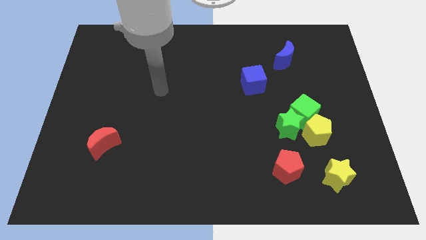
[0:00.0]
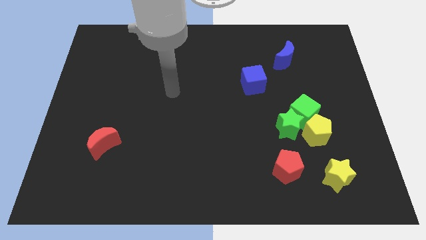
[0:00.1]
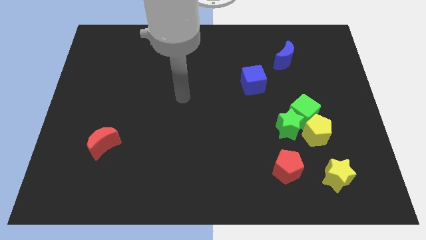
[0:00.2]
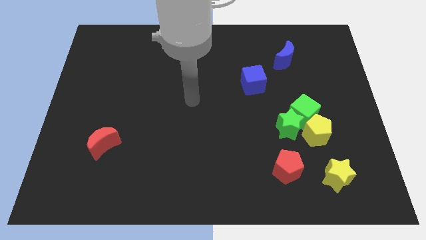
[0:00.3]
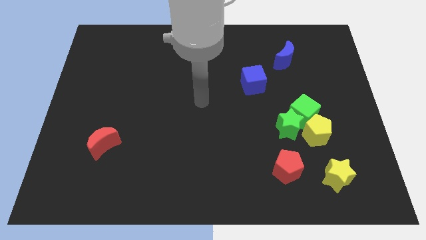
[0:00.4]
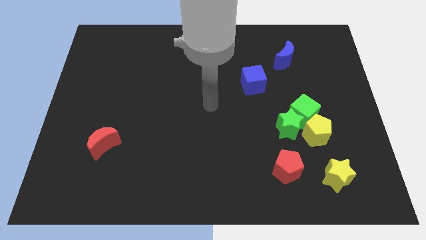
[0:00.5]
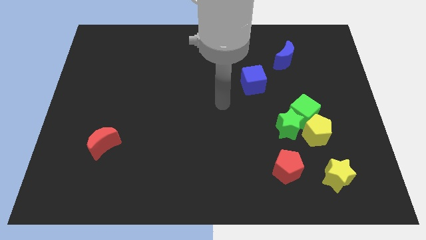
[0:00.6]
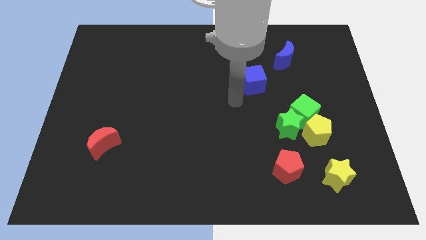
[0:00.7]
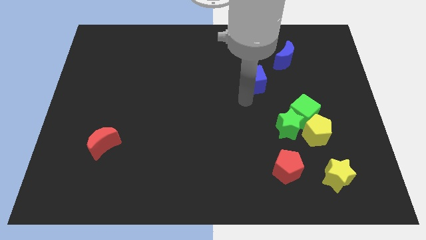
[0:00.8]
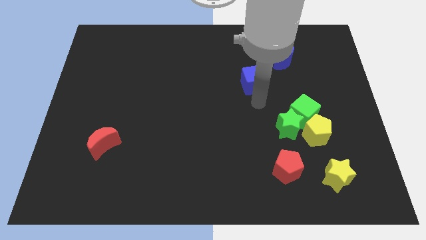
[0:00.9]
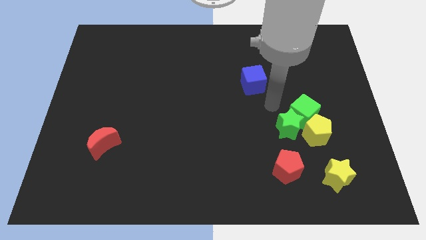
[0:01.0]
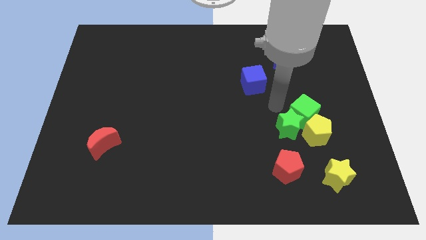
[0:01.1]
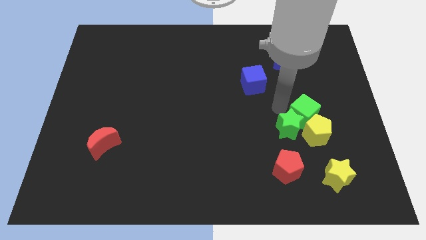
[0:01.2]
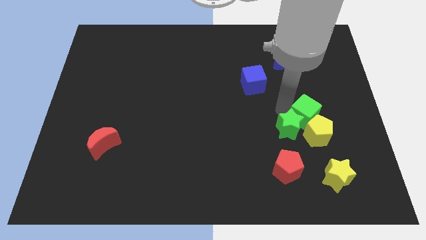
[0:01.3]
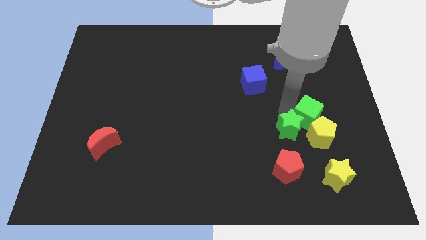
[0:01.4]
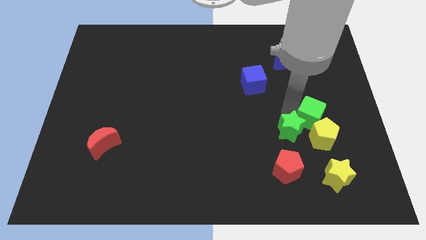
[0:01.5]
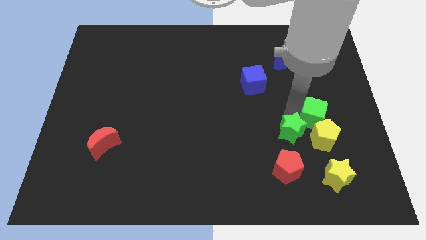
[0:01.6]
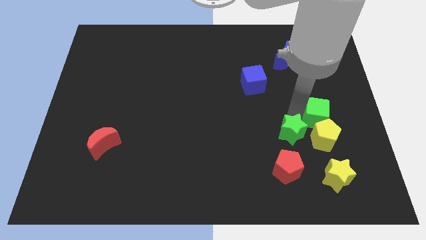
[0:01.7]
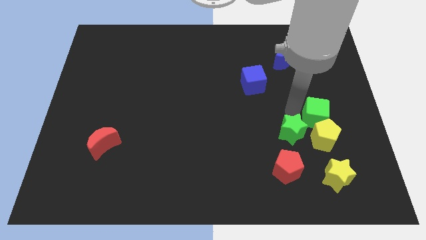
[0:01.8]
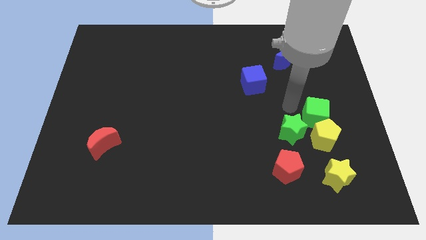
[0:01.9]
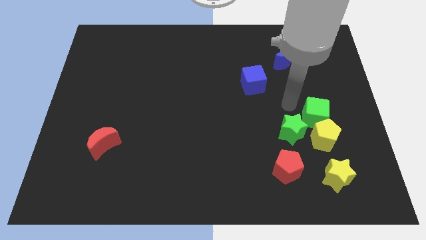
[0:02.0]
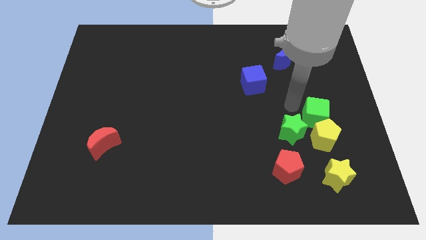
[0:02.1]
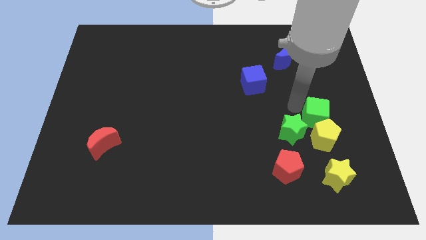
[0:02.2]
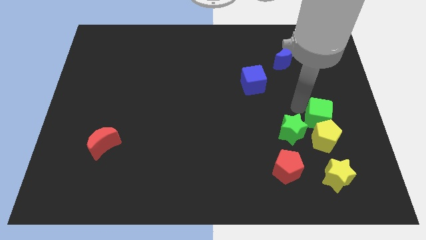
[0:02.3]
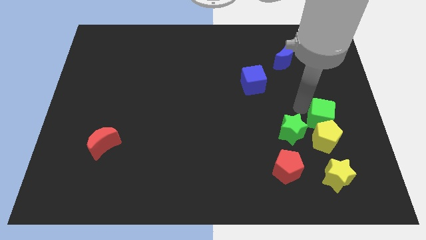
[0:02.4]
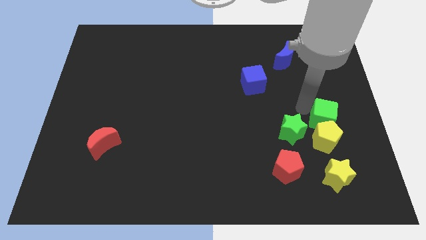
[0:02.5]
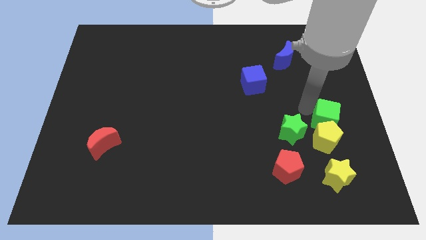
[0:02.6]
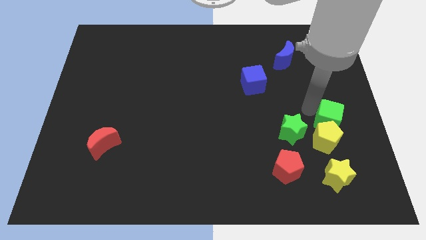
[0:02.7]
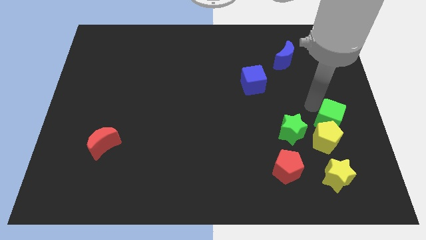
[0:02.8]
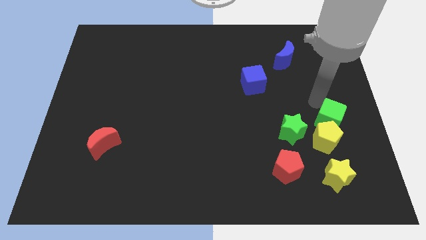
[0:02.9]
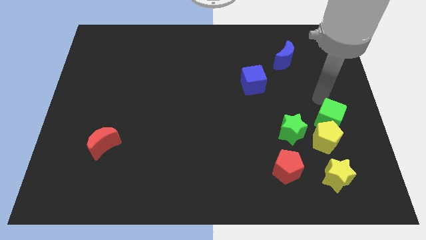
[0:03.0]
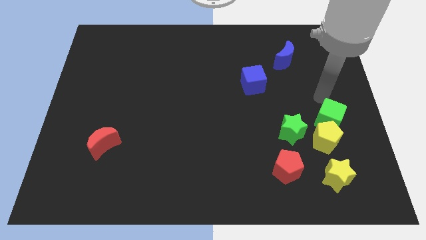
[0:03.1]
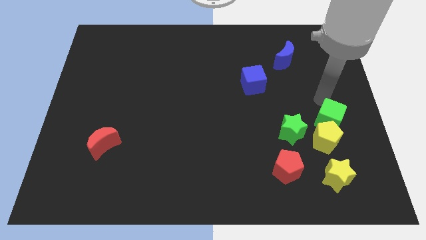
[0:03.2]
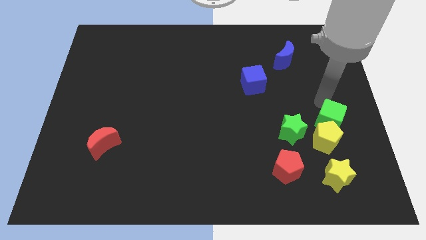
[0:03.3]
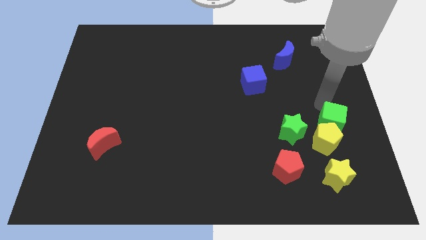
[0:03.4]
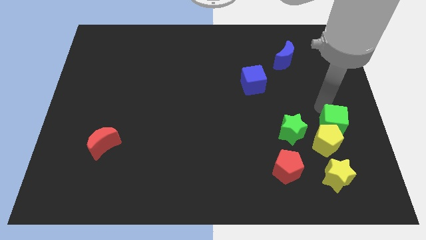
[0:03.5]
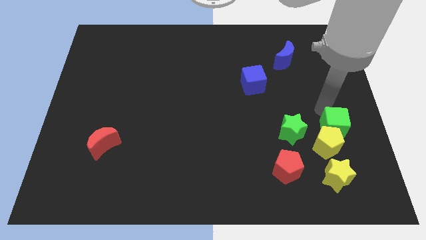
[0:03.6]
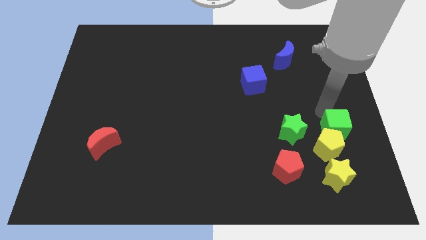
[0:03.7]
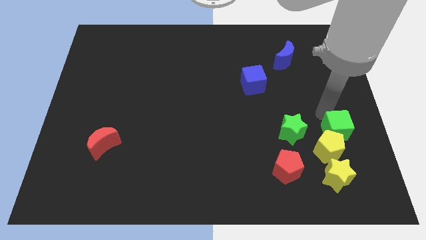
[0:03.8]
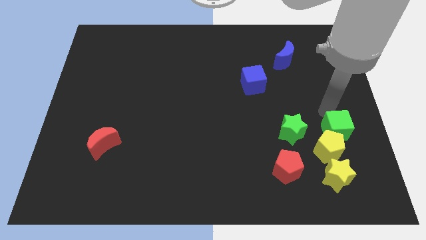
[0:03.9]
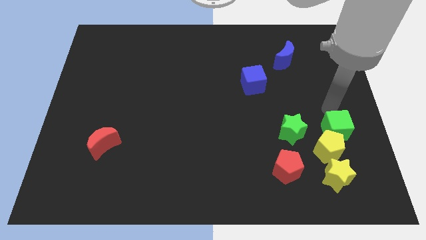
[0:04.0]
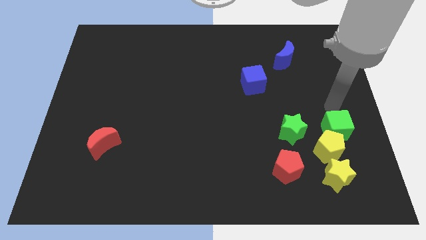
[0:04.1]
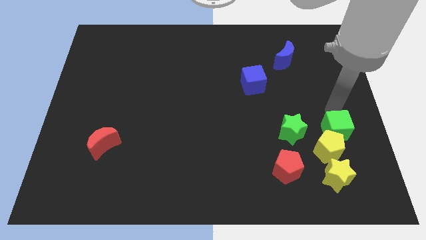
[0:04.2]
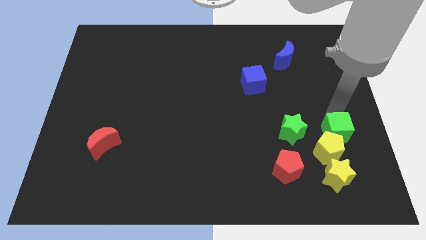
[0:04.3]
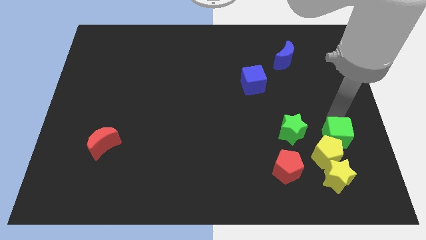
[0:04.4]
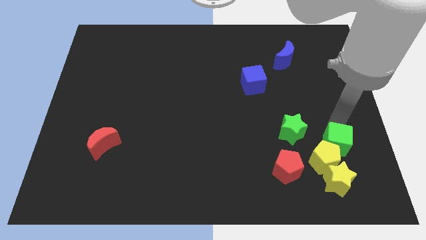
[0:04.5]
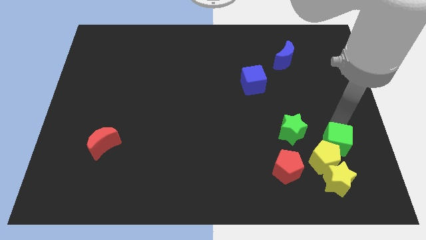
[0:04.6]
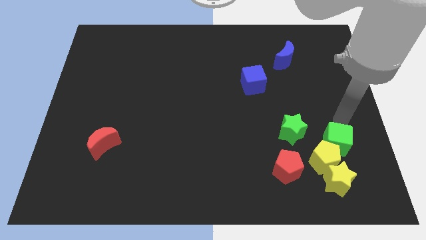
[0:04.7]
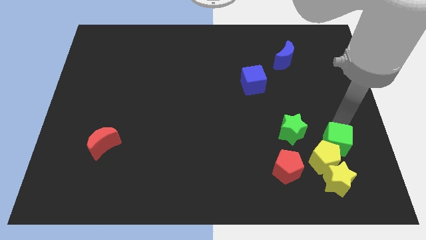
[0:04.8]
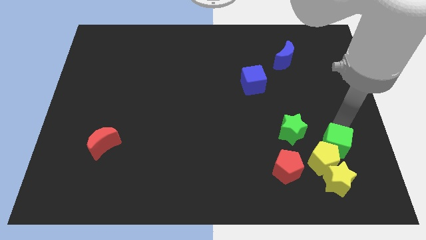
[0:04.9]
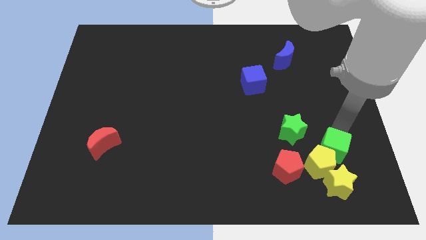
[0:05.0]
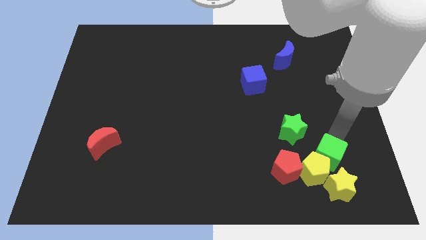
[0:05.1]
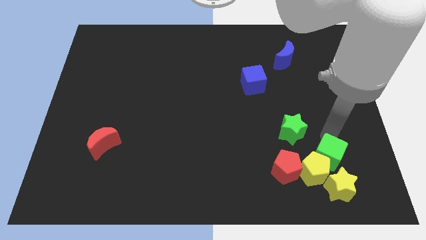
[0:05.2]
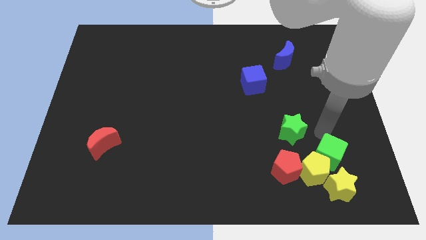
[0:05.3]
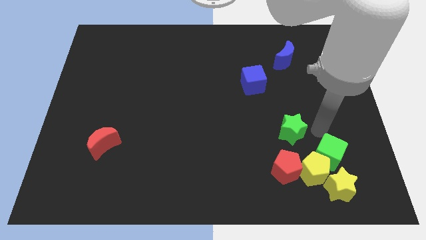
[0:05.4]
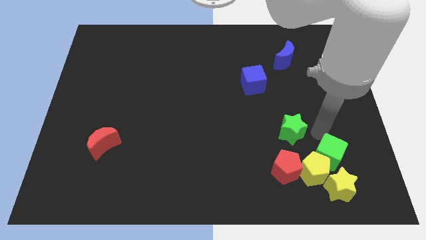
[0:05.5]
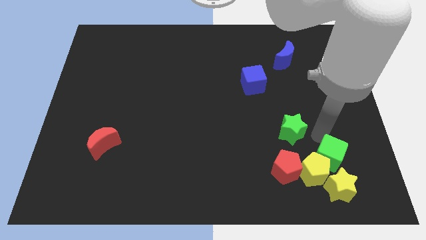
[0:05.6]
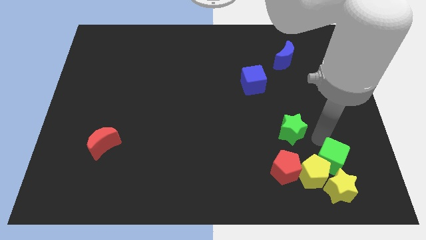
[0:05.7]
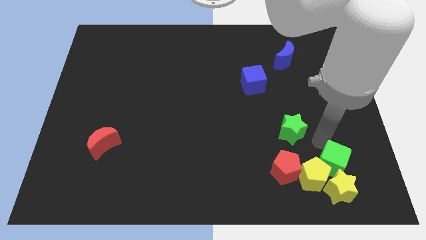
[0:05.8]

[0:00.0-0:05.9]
push the green cube towards the yellow star

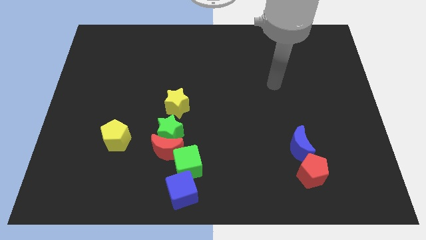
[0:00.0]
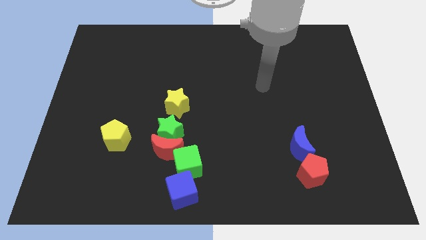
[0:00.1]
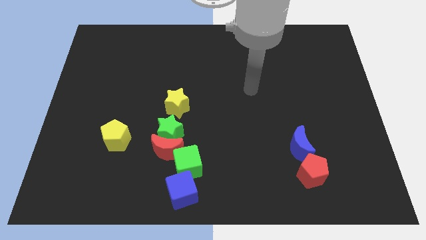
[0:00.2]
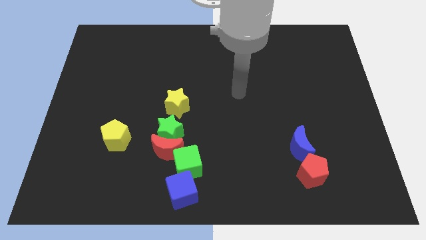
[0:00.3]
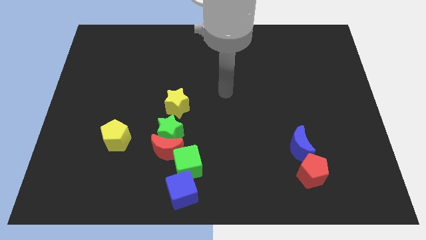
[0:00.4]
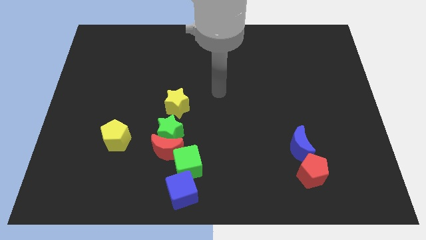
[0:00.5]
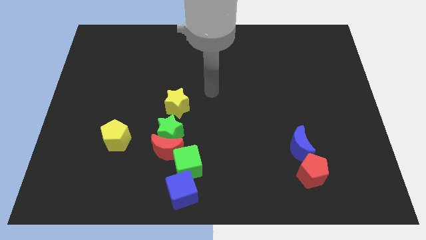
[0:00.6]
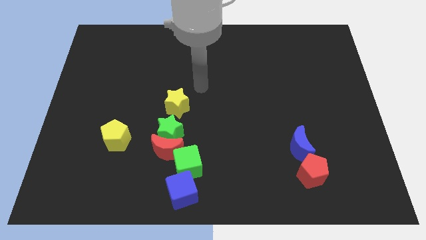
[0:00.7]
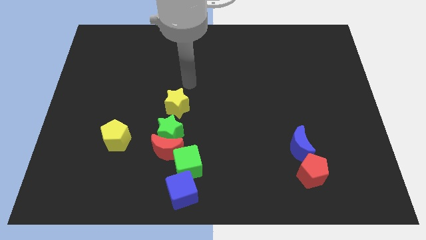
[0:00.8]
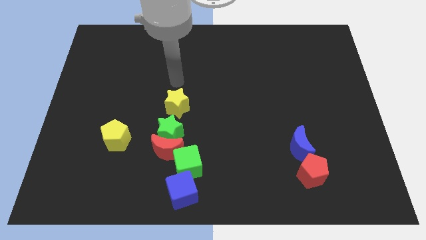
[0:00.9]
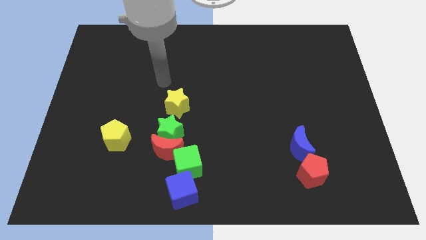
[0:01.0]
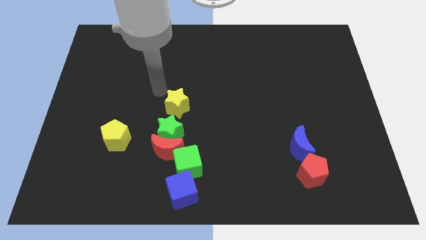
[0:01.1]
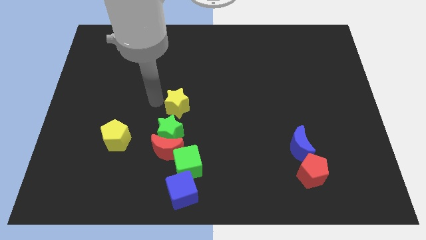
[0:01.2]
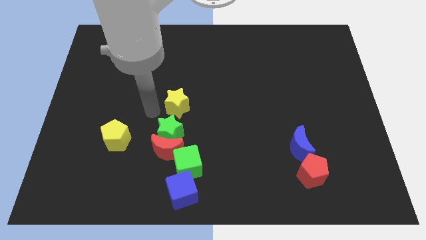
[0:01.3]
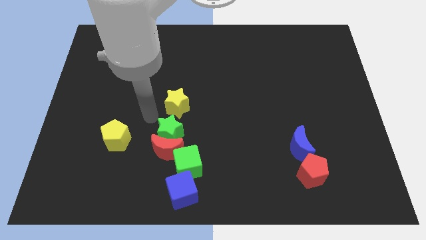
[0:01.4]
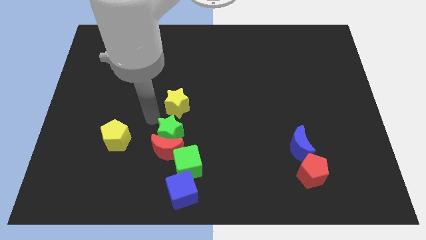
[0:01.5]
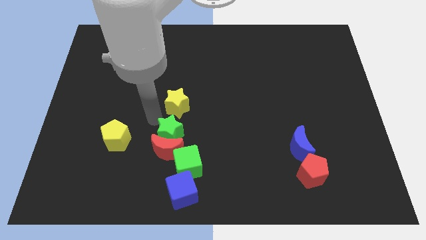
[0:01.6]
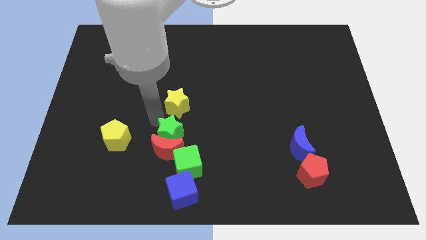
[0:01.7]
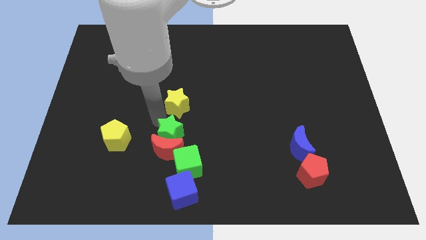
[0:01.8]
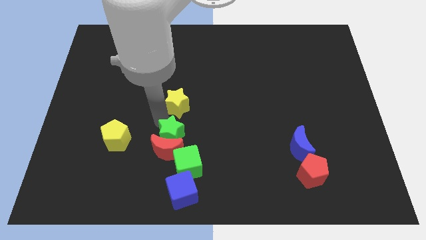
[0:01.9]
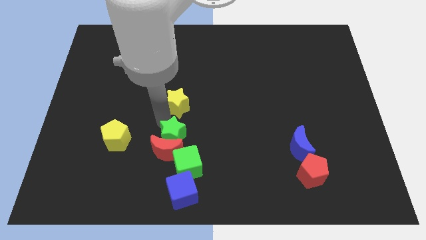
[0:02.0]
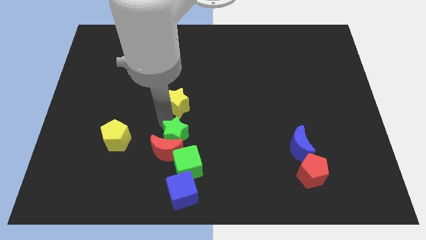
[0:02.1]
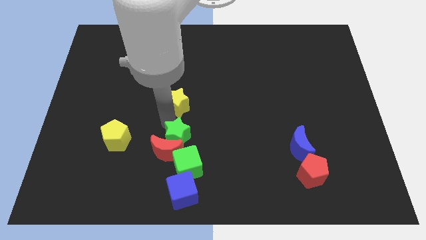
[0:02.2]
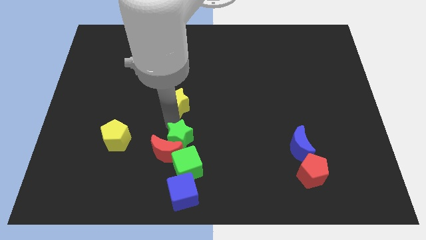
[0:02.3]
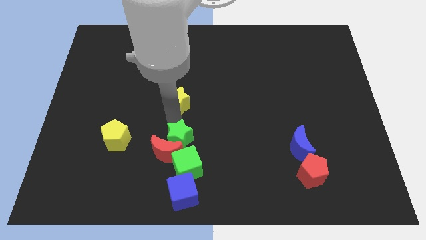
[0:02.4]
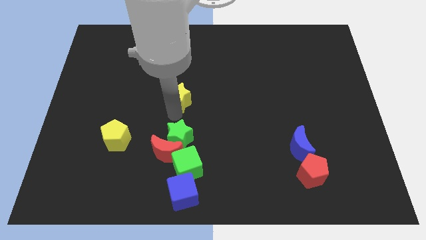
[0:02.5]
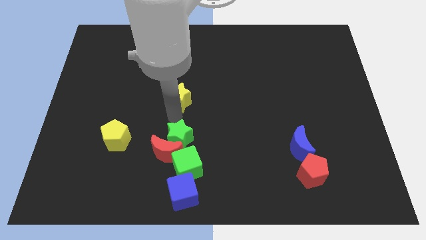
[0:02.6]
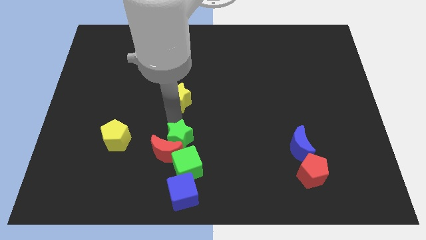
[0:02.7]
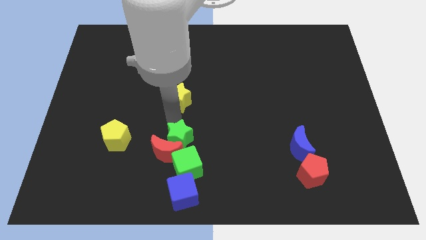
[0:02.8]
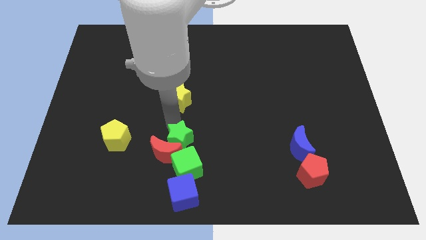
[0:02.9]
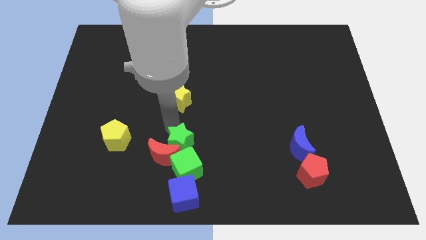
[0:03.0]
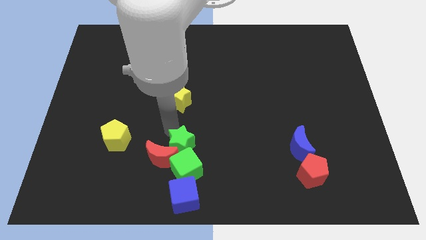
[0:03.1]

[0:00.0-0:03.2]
slide the green star to the green cube
